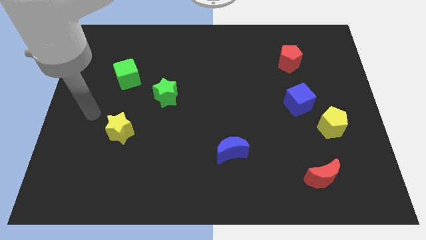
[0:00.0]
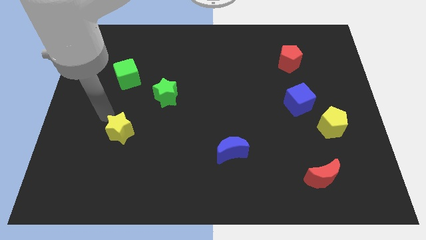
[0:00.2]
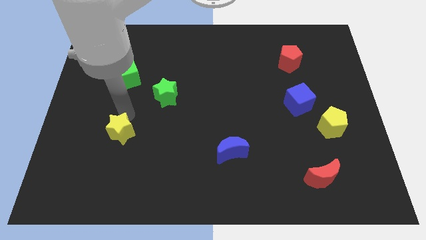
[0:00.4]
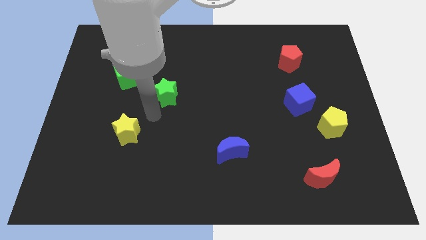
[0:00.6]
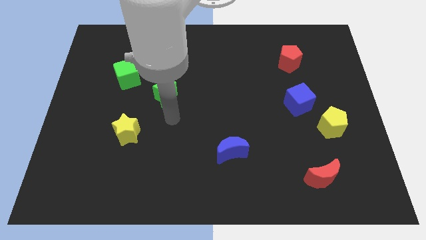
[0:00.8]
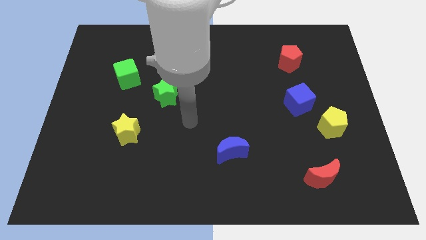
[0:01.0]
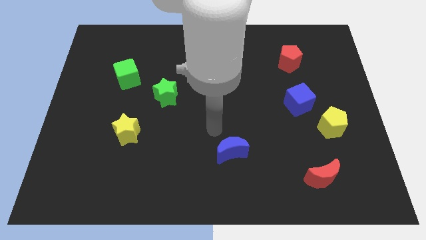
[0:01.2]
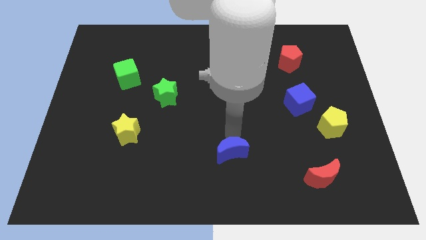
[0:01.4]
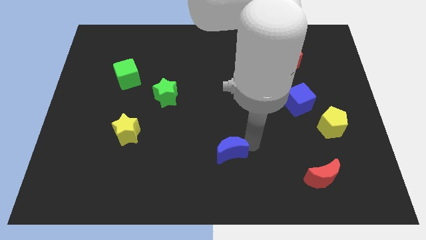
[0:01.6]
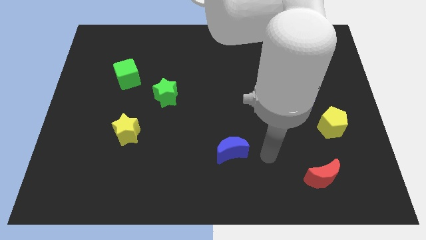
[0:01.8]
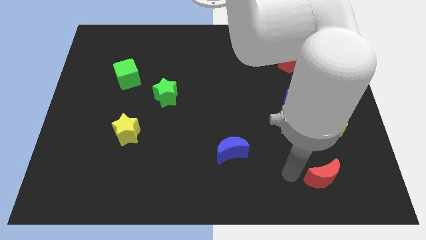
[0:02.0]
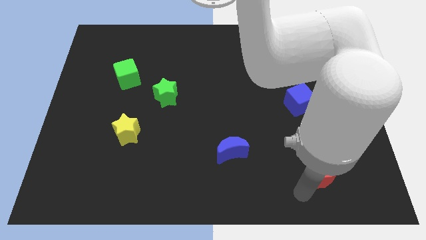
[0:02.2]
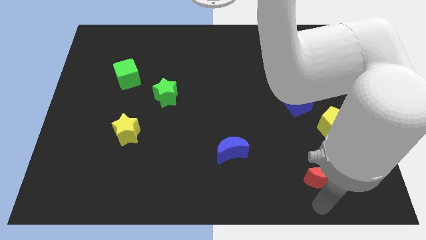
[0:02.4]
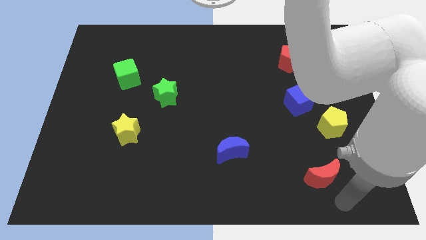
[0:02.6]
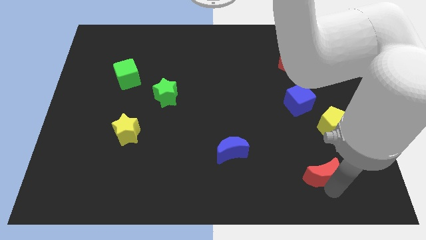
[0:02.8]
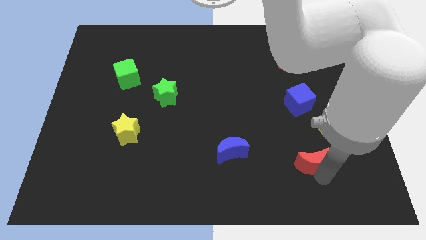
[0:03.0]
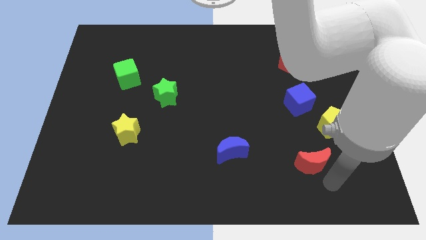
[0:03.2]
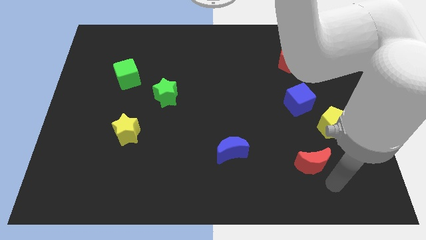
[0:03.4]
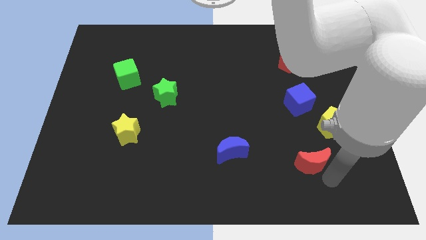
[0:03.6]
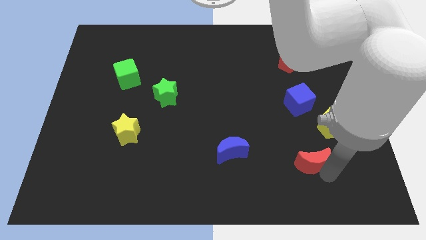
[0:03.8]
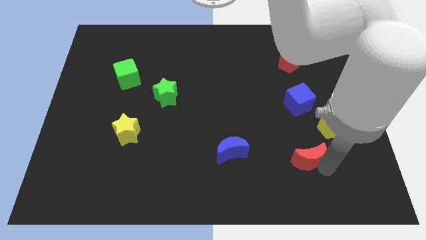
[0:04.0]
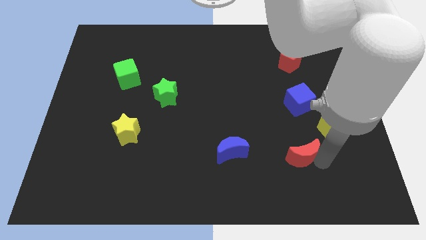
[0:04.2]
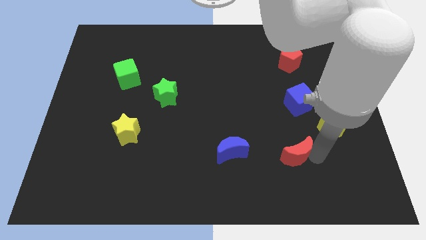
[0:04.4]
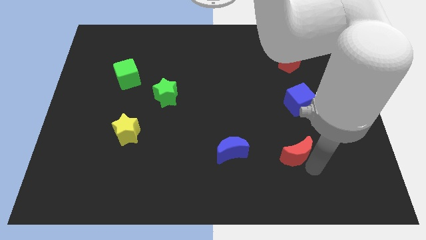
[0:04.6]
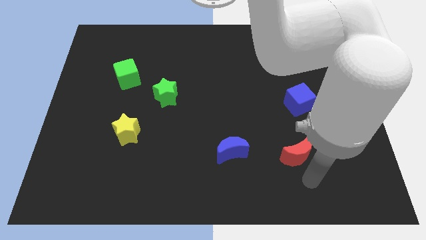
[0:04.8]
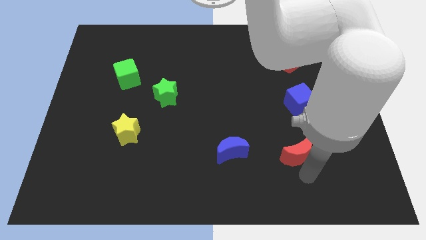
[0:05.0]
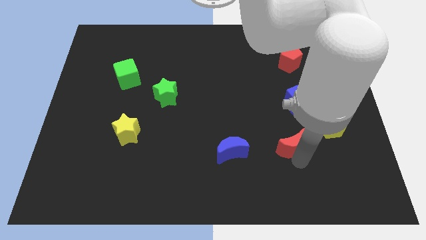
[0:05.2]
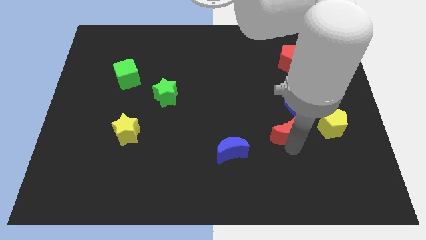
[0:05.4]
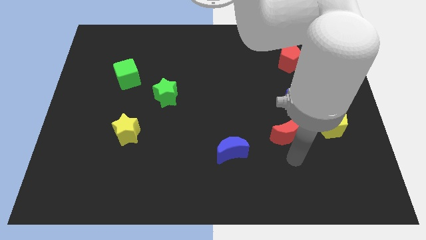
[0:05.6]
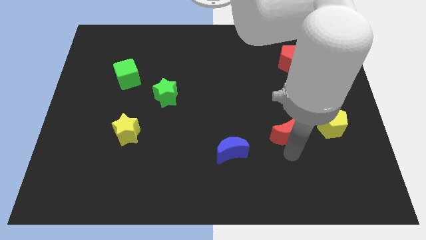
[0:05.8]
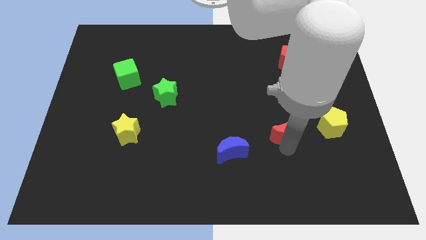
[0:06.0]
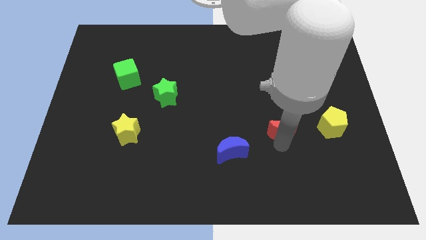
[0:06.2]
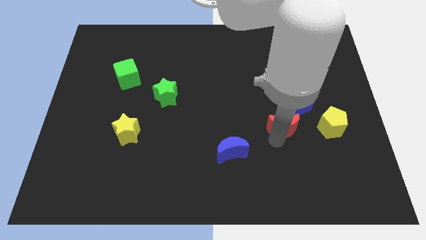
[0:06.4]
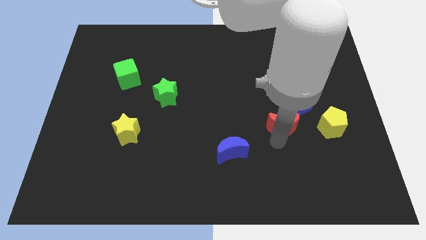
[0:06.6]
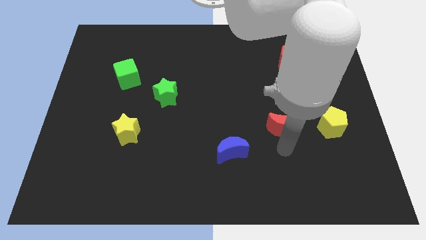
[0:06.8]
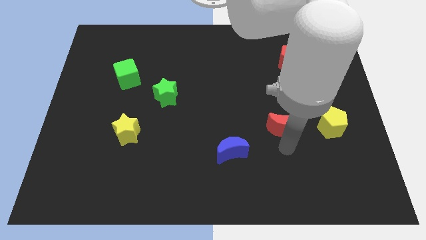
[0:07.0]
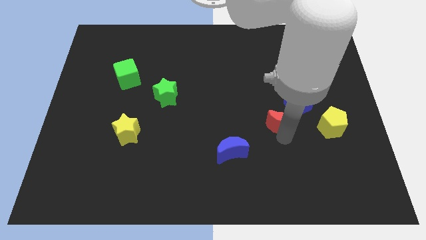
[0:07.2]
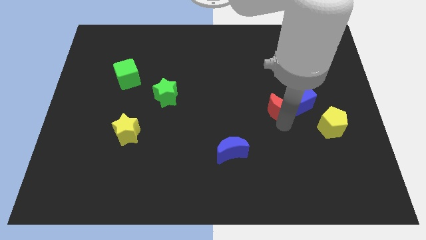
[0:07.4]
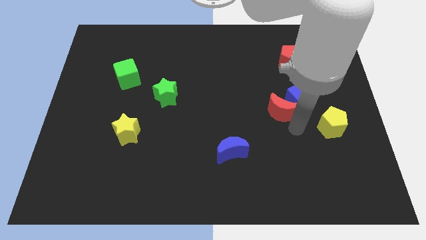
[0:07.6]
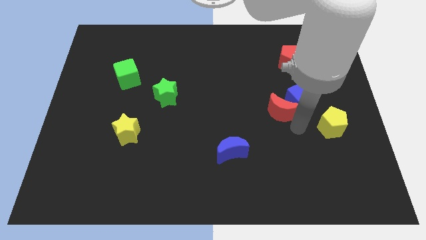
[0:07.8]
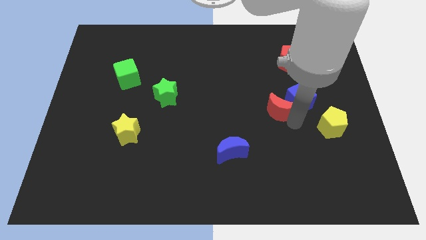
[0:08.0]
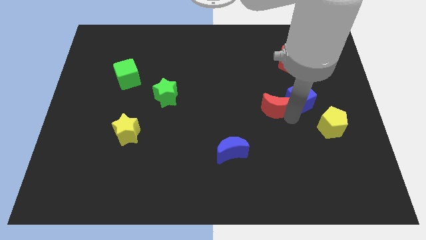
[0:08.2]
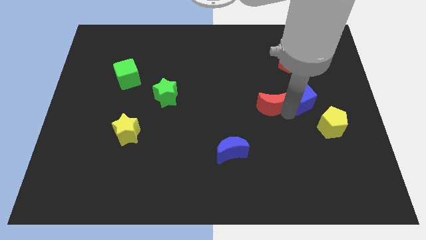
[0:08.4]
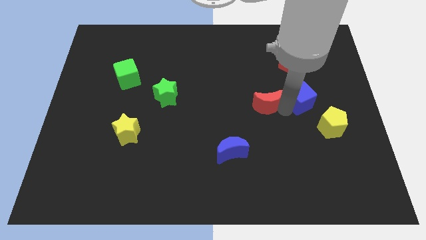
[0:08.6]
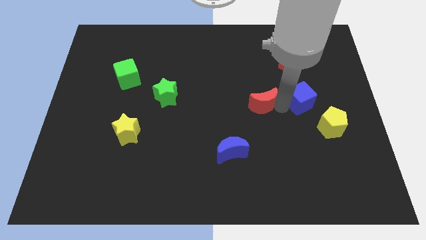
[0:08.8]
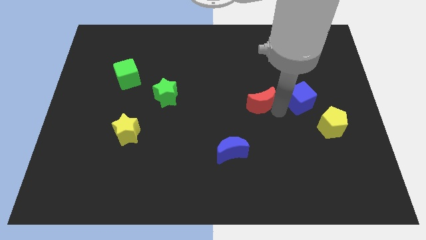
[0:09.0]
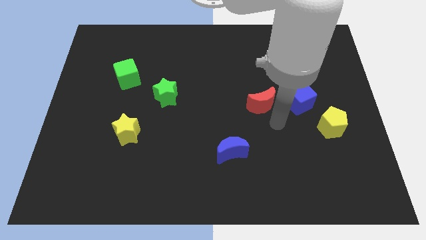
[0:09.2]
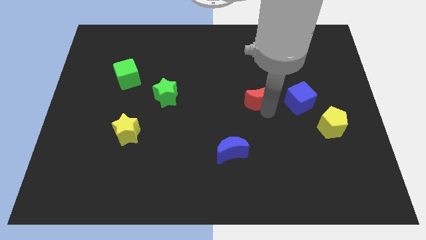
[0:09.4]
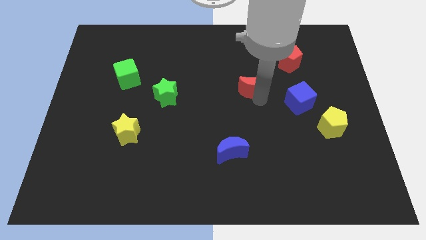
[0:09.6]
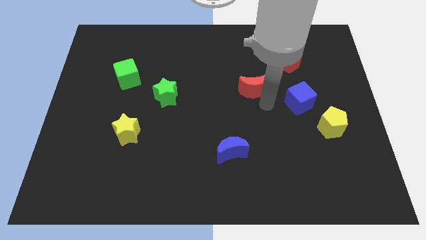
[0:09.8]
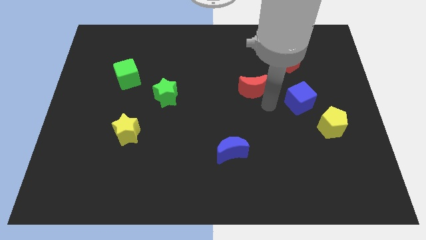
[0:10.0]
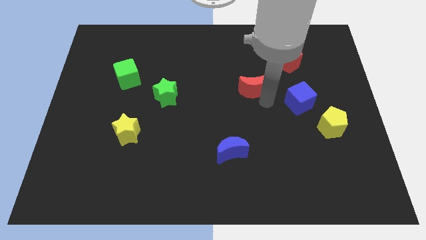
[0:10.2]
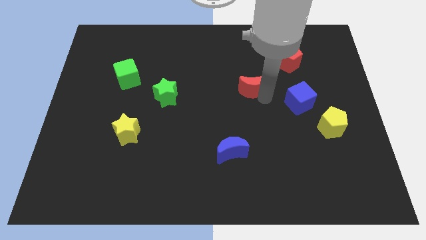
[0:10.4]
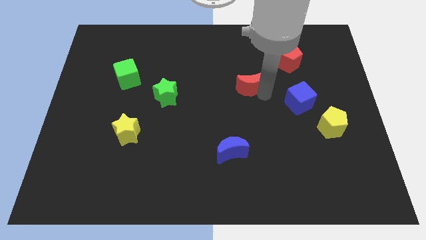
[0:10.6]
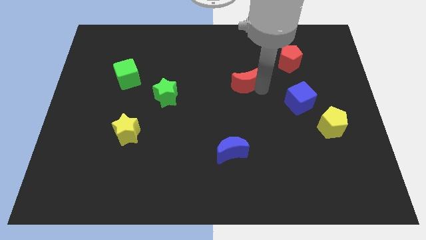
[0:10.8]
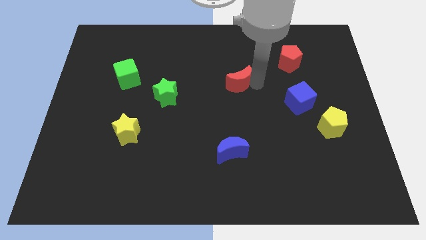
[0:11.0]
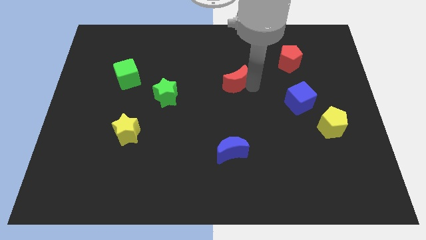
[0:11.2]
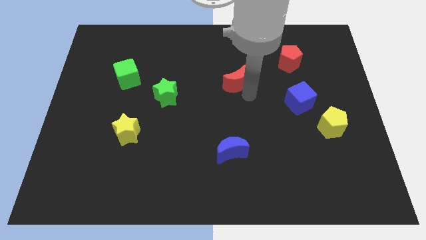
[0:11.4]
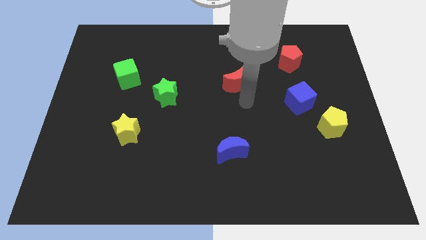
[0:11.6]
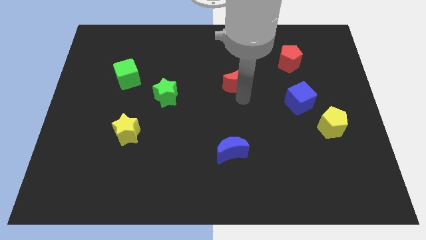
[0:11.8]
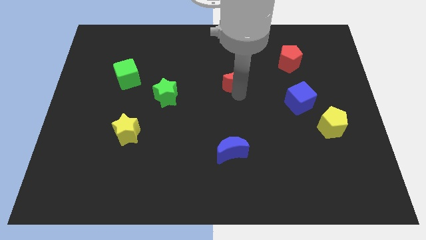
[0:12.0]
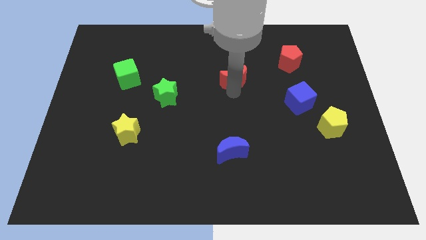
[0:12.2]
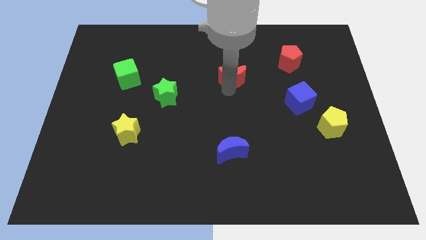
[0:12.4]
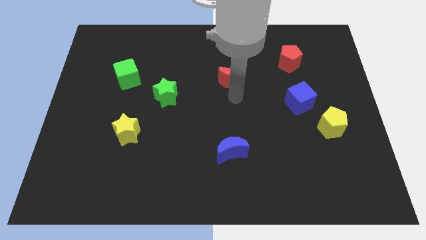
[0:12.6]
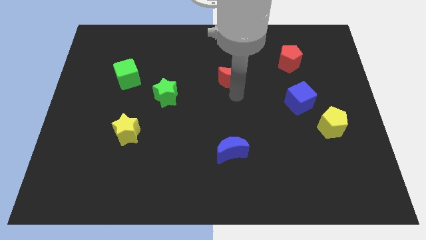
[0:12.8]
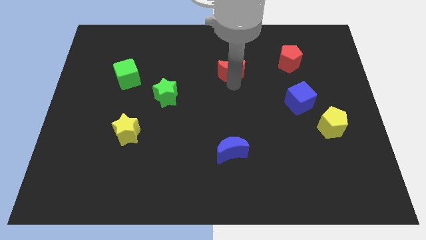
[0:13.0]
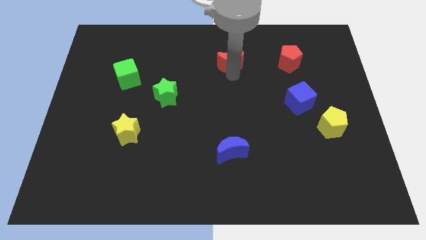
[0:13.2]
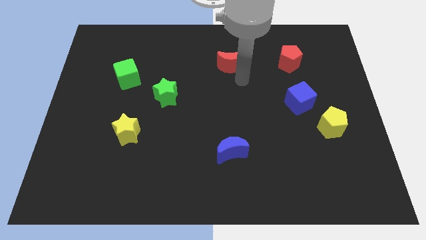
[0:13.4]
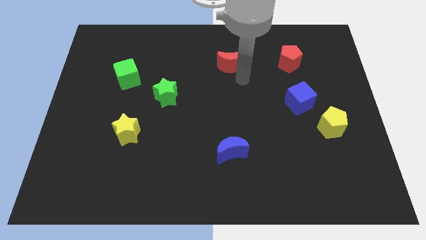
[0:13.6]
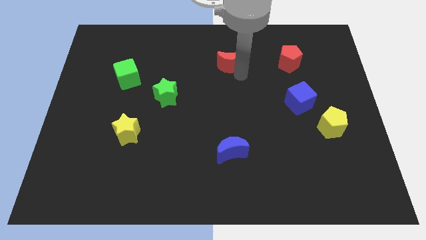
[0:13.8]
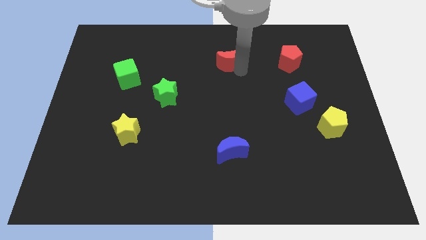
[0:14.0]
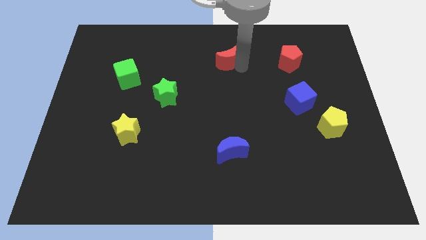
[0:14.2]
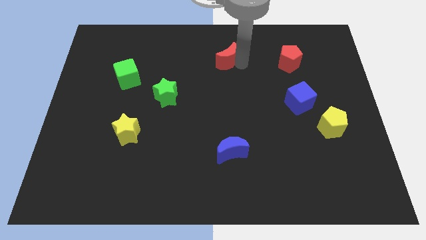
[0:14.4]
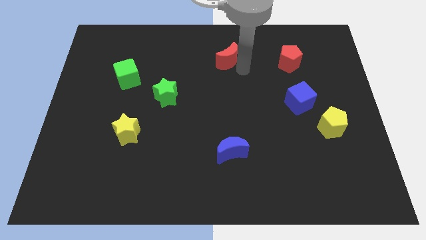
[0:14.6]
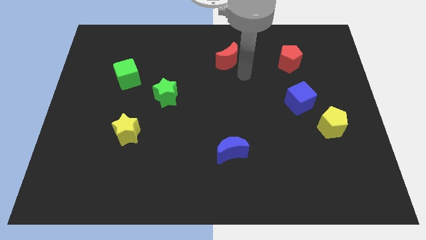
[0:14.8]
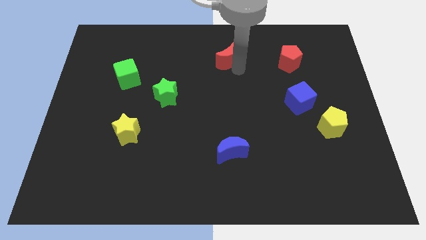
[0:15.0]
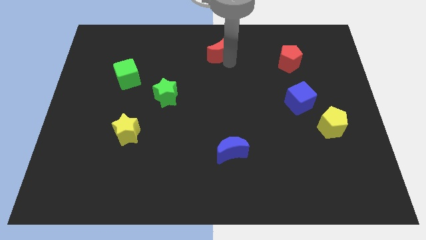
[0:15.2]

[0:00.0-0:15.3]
put the red moon to the towards your base

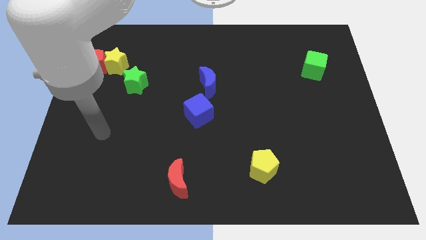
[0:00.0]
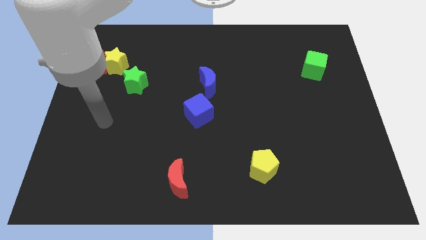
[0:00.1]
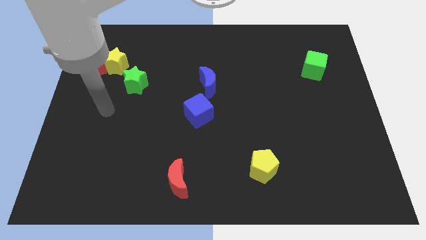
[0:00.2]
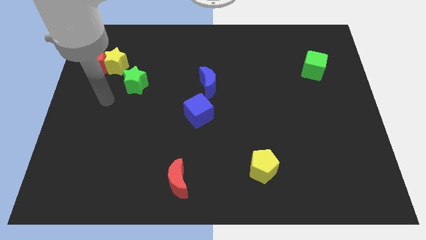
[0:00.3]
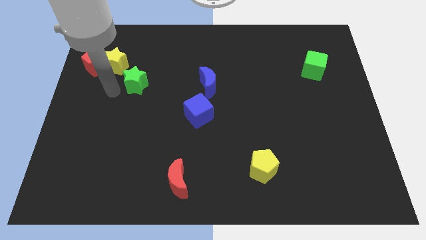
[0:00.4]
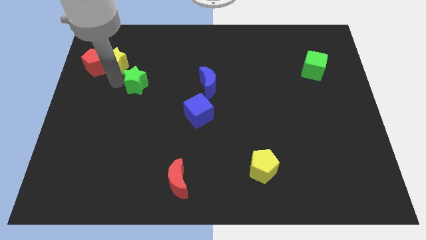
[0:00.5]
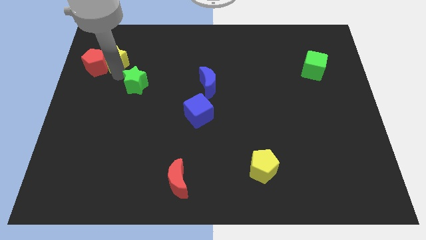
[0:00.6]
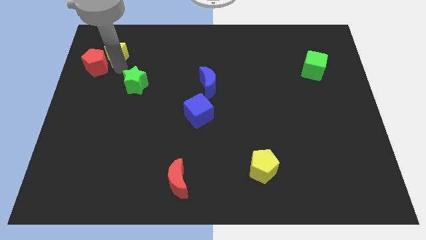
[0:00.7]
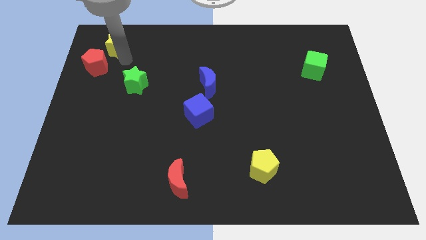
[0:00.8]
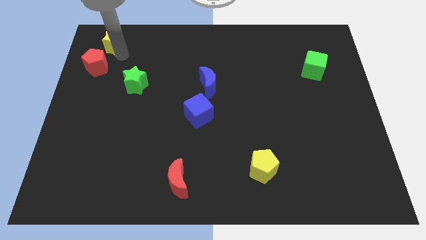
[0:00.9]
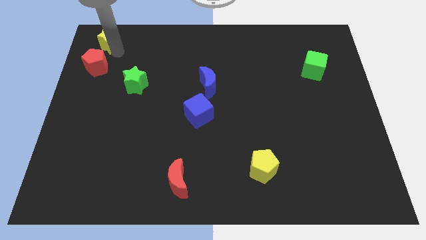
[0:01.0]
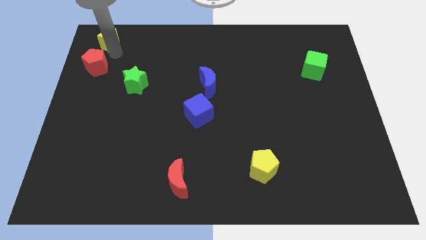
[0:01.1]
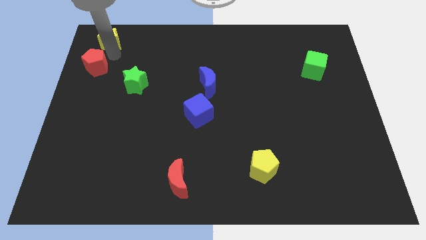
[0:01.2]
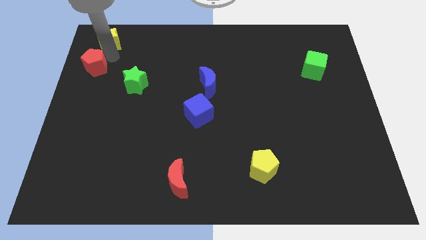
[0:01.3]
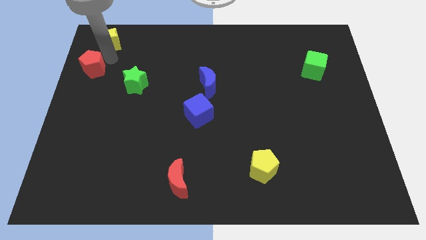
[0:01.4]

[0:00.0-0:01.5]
slide the red pentagon to the left side of the board
